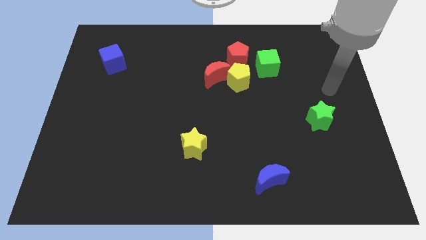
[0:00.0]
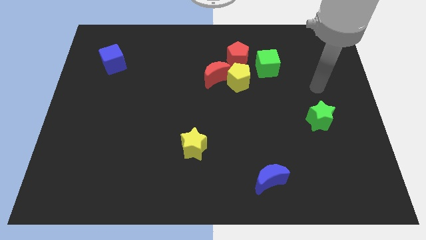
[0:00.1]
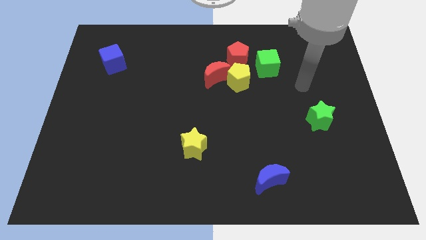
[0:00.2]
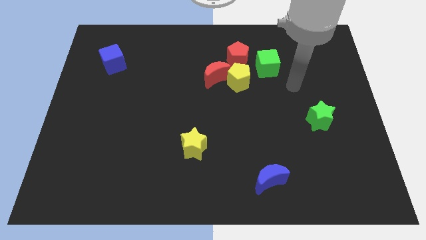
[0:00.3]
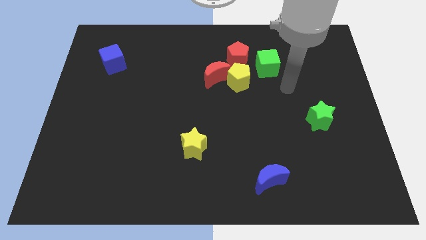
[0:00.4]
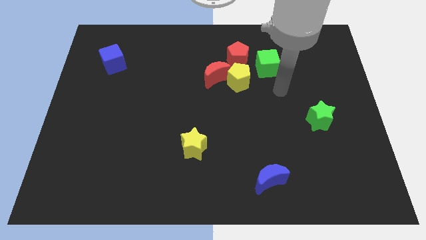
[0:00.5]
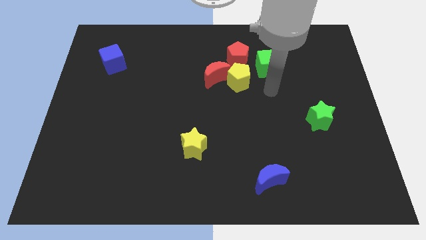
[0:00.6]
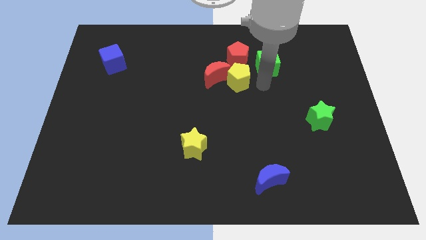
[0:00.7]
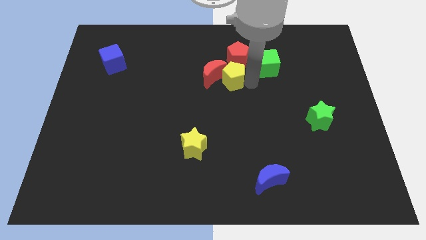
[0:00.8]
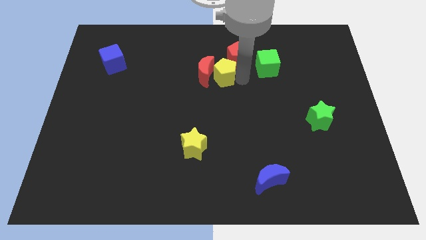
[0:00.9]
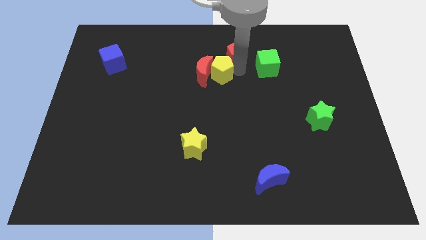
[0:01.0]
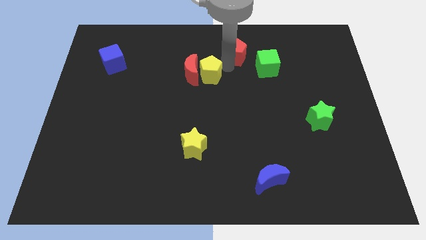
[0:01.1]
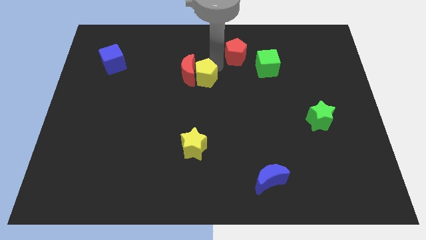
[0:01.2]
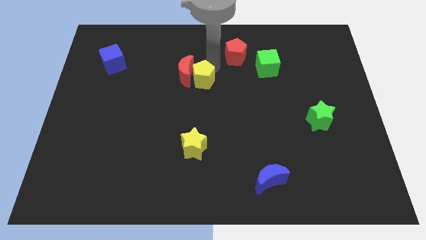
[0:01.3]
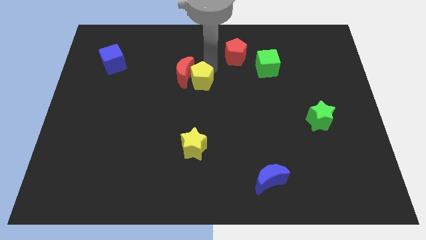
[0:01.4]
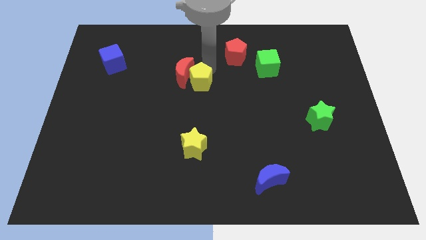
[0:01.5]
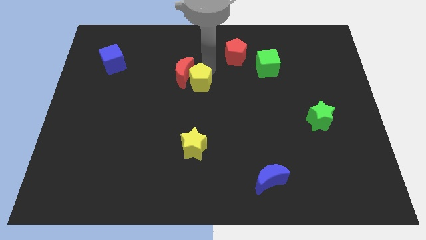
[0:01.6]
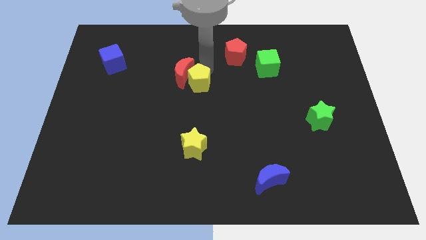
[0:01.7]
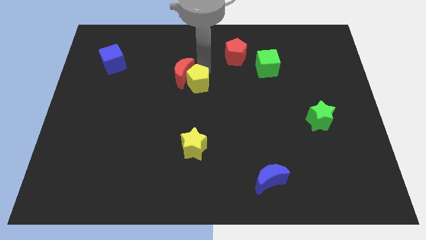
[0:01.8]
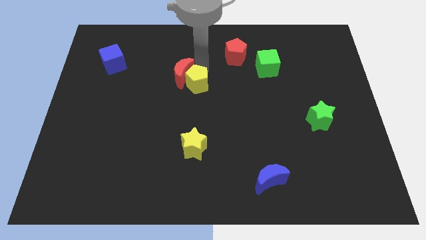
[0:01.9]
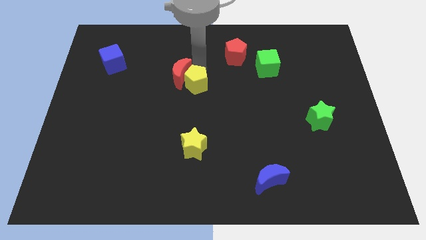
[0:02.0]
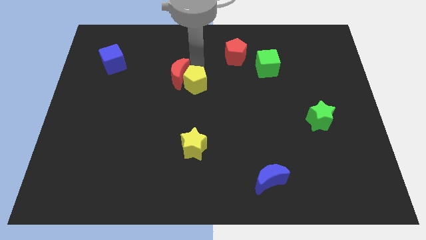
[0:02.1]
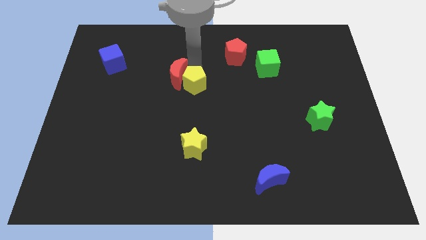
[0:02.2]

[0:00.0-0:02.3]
separate the red moon from the yellow pentagon and red pentagon

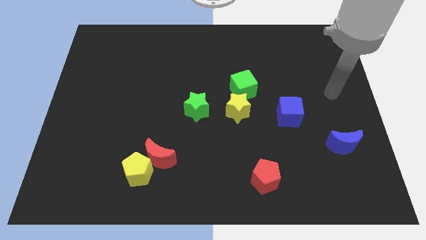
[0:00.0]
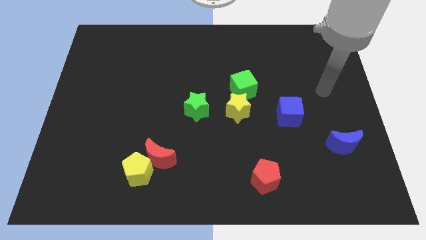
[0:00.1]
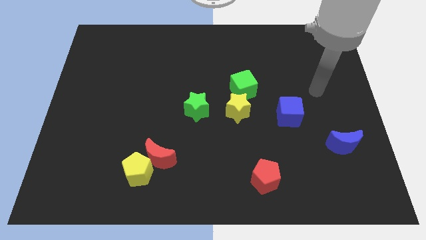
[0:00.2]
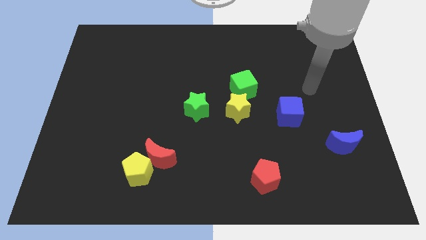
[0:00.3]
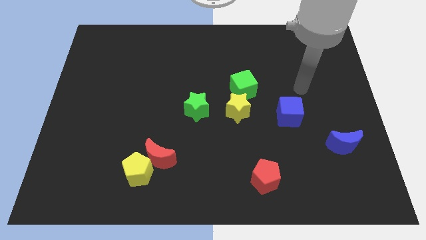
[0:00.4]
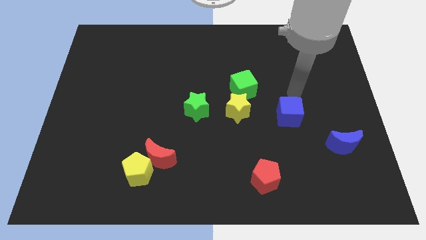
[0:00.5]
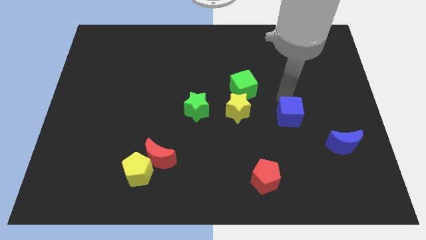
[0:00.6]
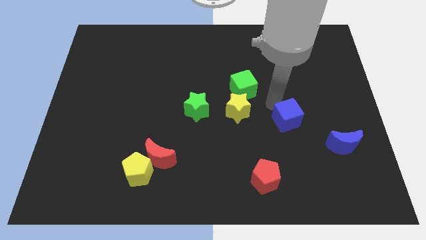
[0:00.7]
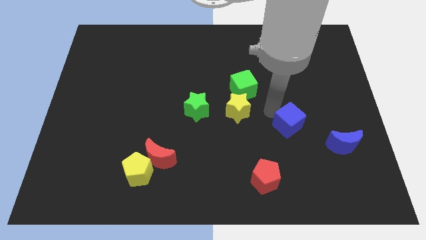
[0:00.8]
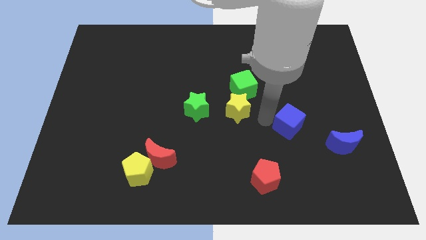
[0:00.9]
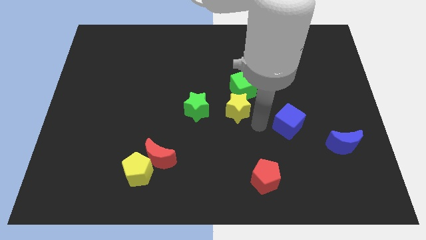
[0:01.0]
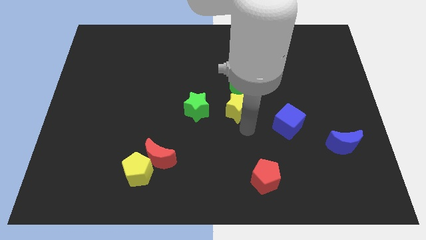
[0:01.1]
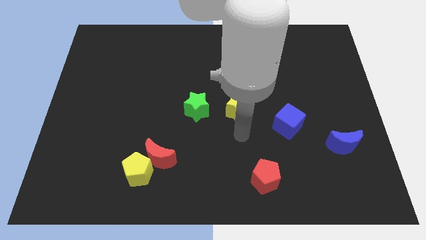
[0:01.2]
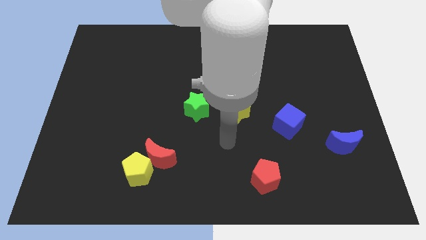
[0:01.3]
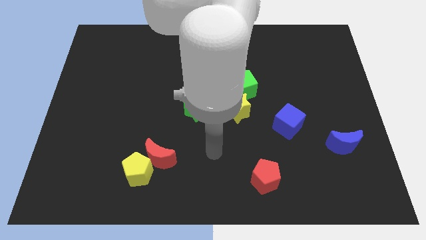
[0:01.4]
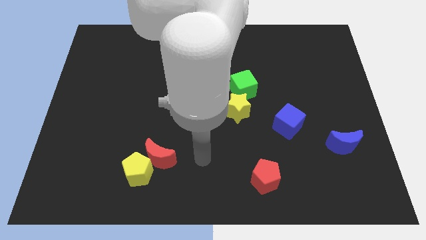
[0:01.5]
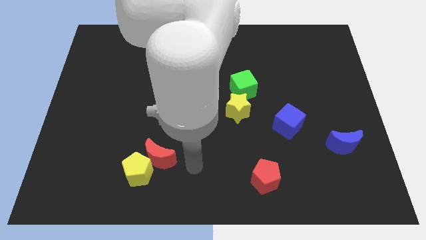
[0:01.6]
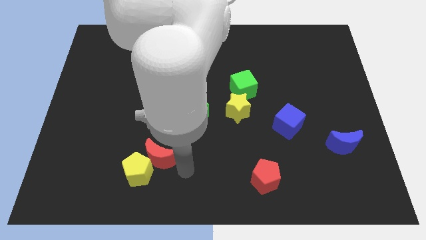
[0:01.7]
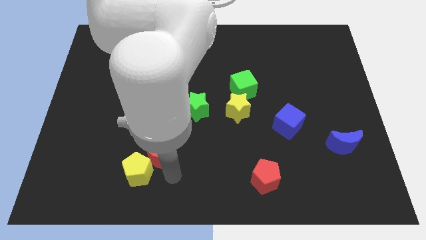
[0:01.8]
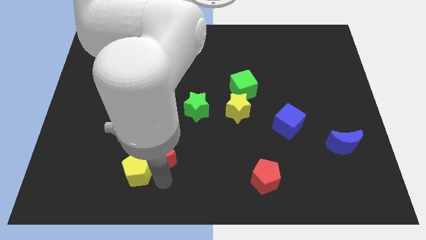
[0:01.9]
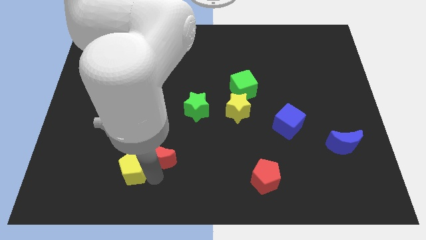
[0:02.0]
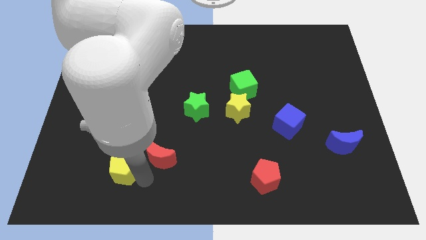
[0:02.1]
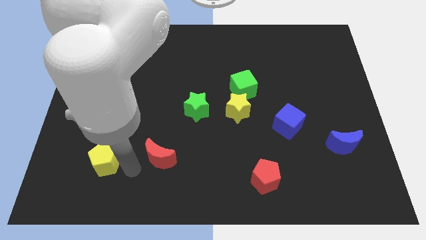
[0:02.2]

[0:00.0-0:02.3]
pull the red moon apart from the yellow pentagon

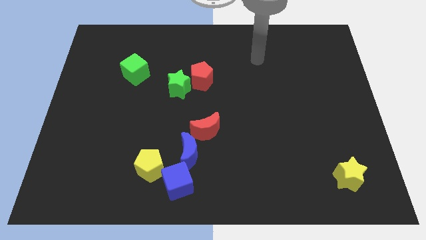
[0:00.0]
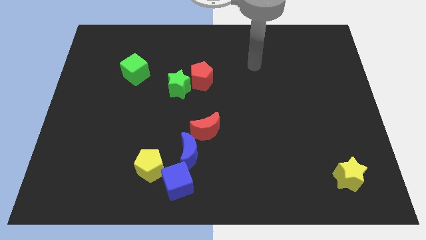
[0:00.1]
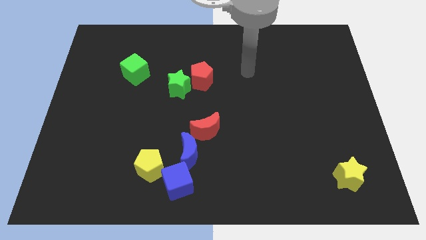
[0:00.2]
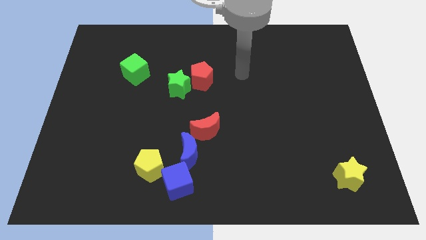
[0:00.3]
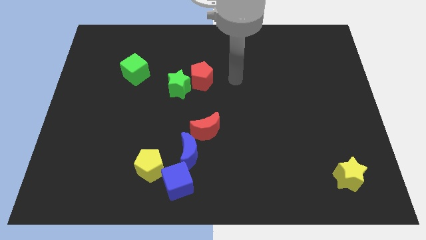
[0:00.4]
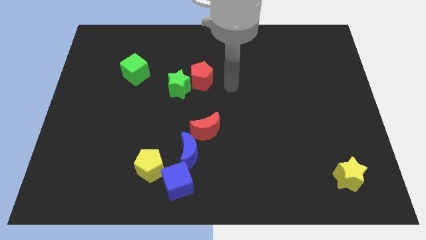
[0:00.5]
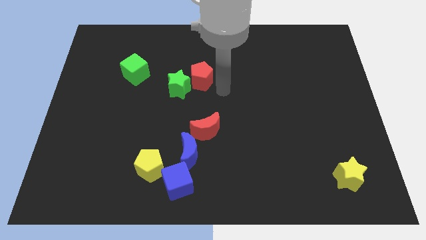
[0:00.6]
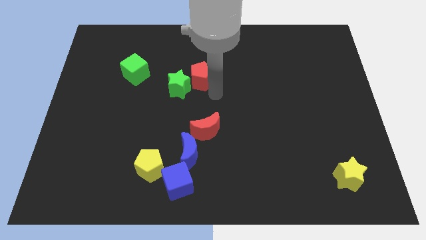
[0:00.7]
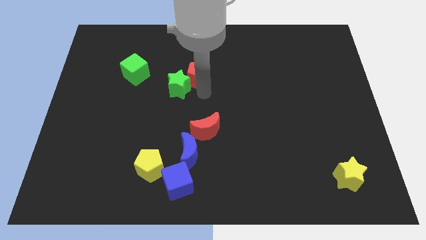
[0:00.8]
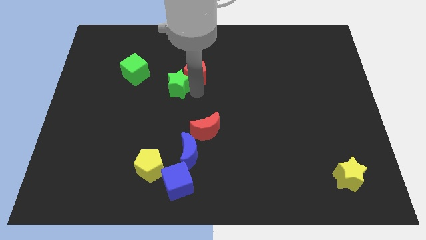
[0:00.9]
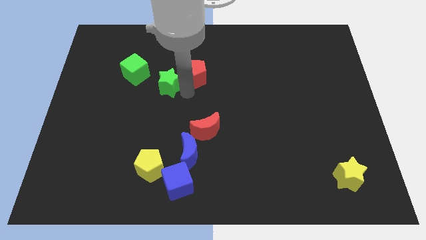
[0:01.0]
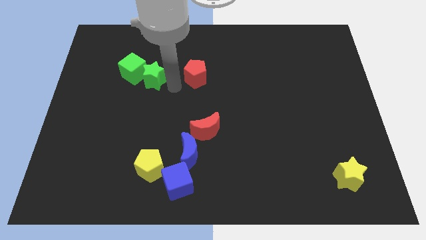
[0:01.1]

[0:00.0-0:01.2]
move the red pentagon away from the green star

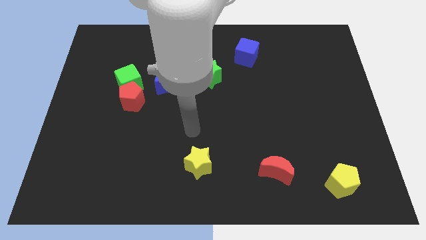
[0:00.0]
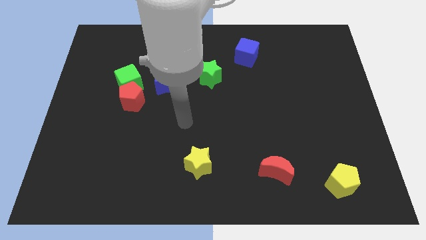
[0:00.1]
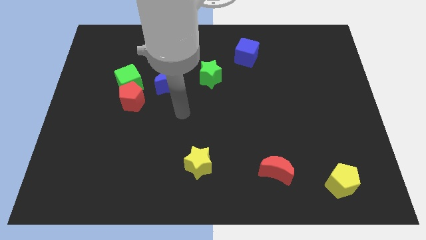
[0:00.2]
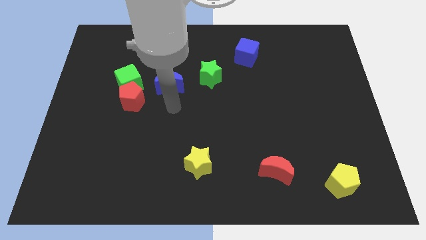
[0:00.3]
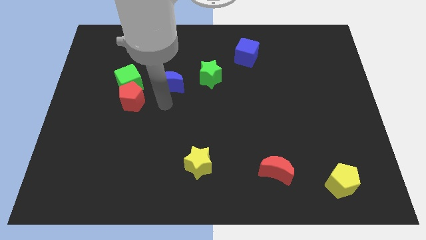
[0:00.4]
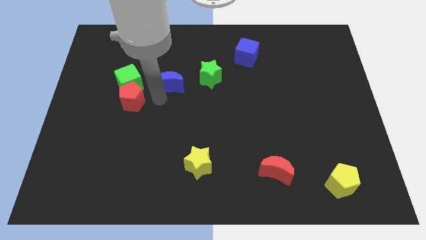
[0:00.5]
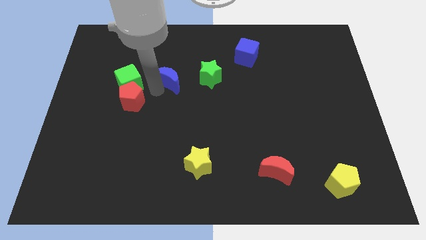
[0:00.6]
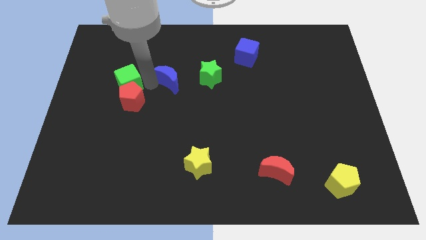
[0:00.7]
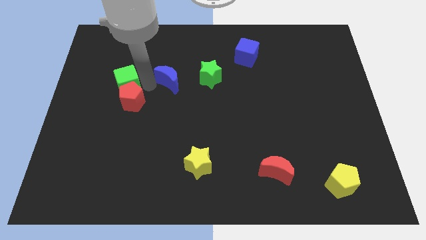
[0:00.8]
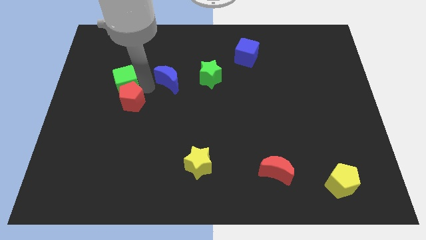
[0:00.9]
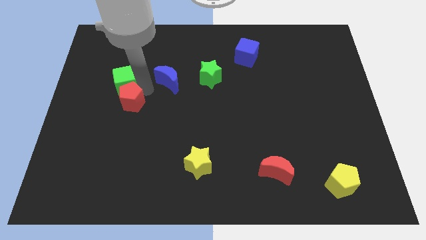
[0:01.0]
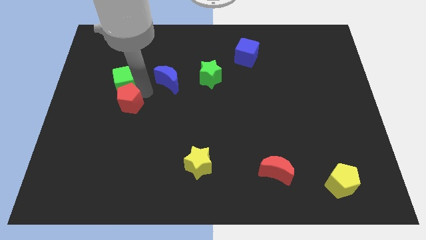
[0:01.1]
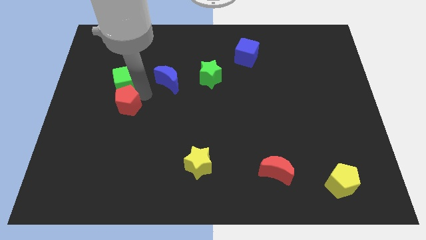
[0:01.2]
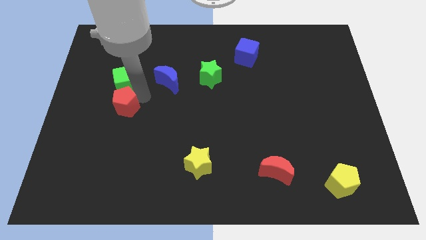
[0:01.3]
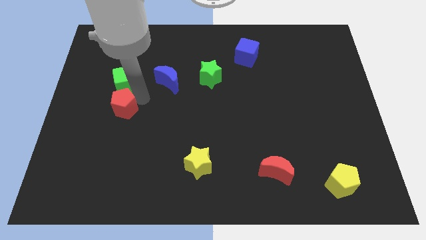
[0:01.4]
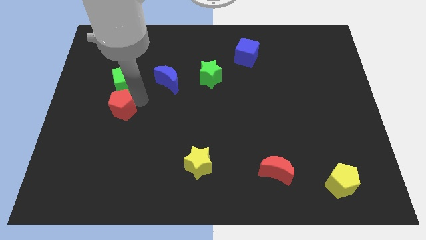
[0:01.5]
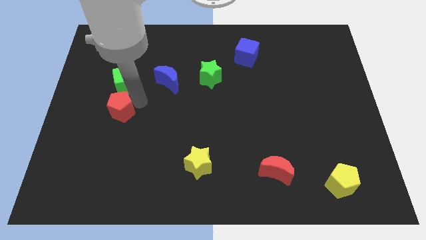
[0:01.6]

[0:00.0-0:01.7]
pull the red pentagon apart from the green cube and blue moon

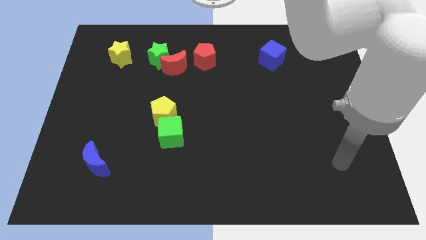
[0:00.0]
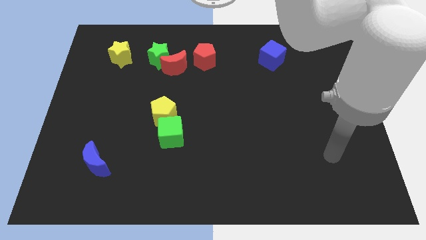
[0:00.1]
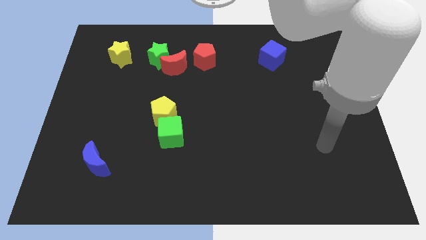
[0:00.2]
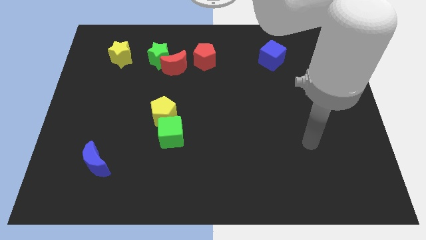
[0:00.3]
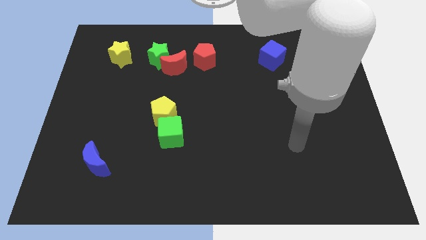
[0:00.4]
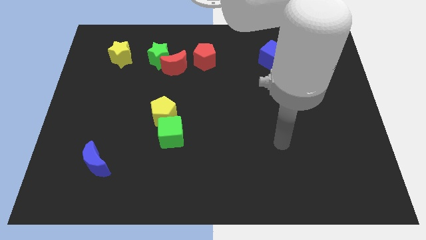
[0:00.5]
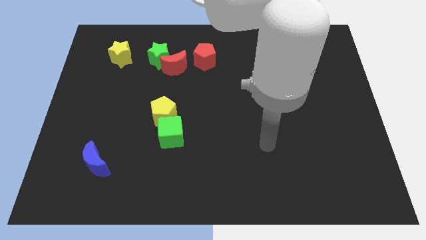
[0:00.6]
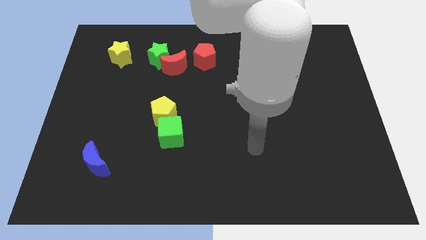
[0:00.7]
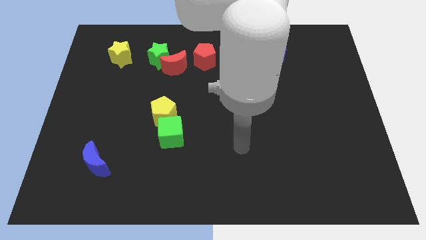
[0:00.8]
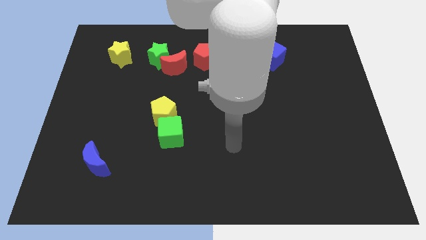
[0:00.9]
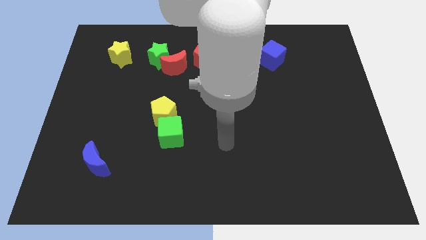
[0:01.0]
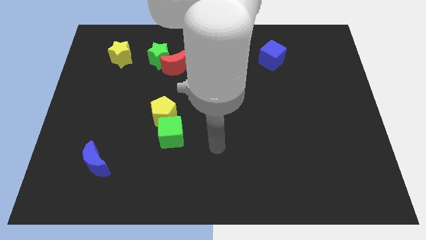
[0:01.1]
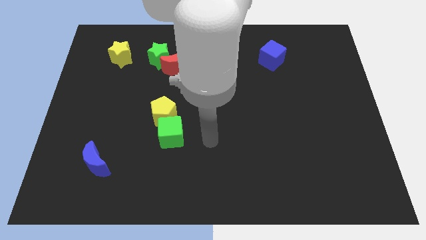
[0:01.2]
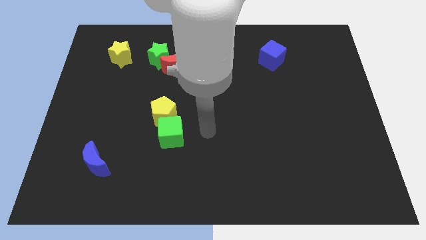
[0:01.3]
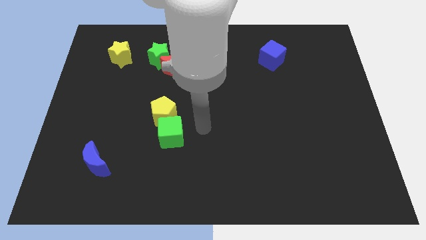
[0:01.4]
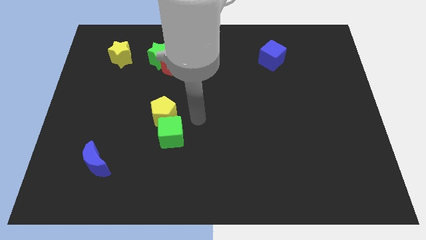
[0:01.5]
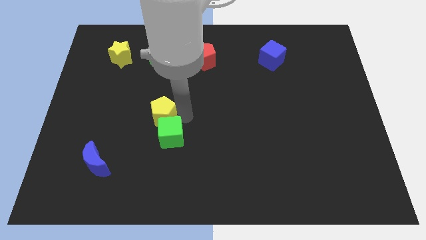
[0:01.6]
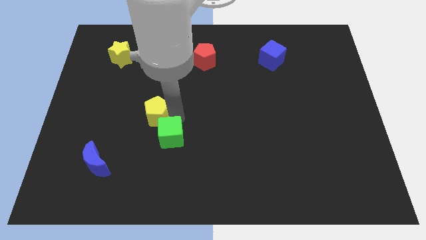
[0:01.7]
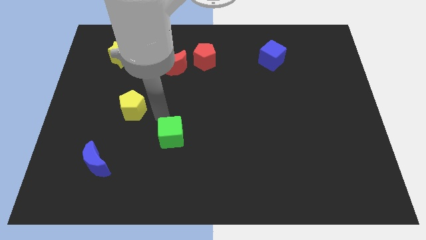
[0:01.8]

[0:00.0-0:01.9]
move the green cube away from the yellow pentagon
